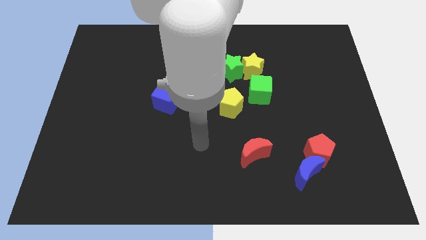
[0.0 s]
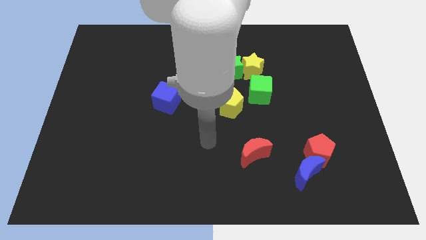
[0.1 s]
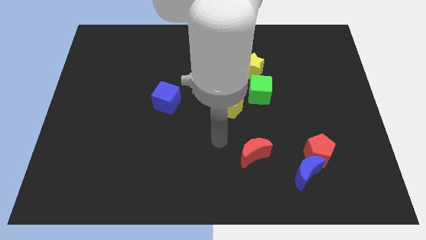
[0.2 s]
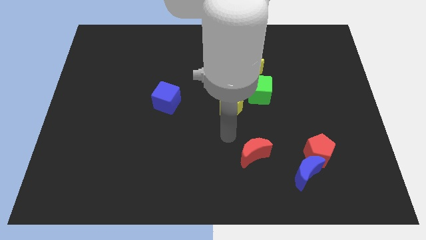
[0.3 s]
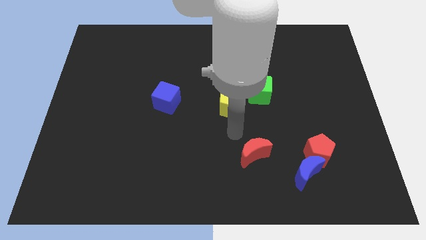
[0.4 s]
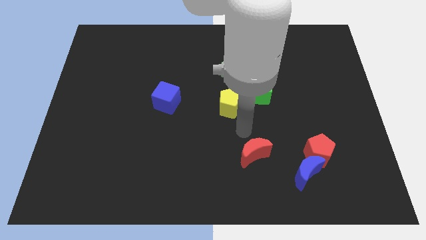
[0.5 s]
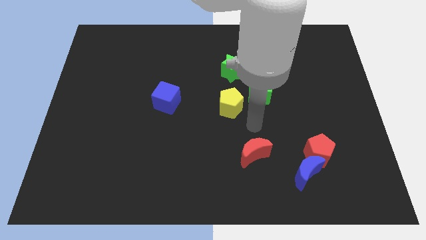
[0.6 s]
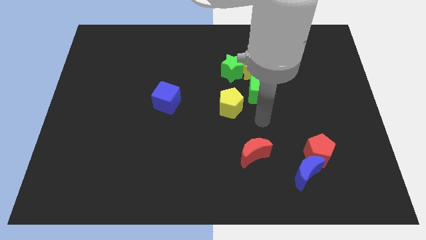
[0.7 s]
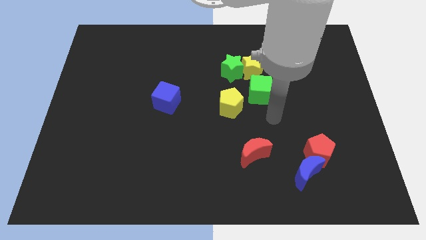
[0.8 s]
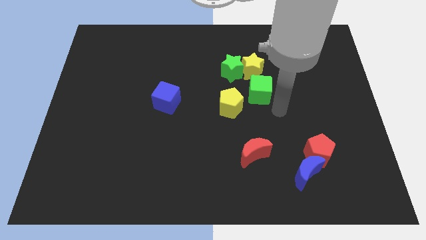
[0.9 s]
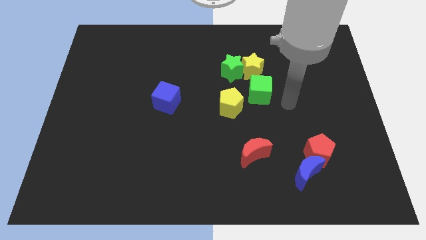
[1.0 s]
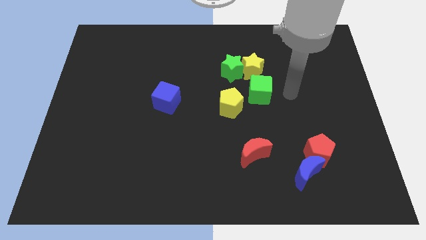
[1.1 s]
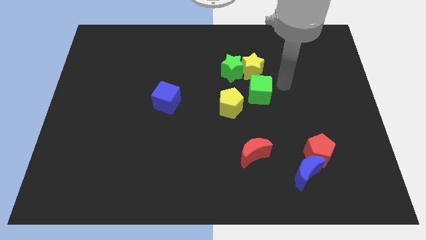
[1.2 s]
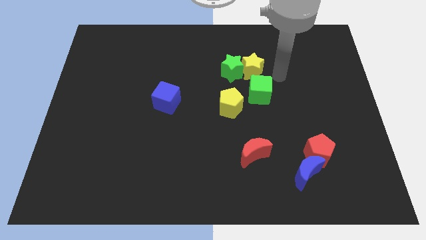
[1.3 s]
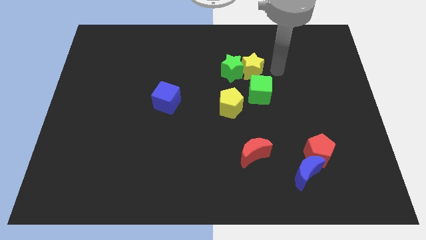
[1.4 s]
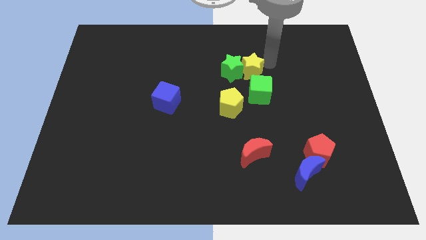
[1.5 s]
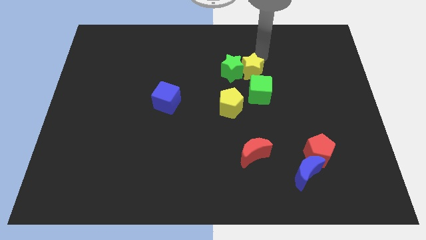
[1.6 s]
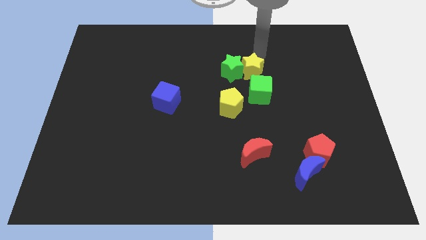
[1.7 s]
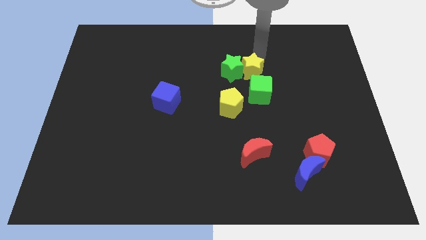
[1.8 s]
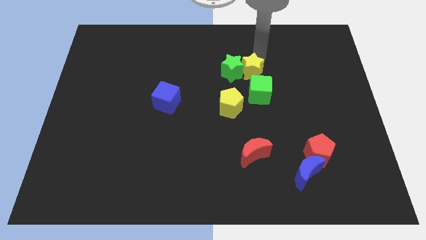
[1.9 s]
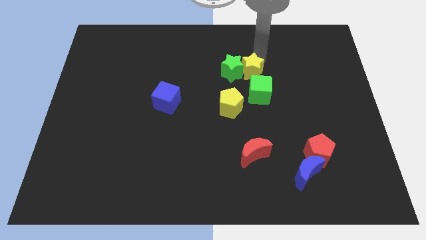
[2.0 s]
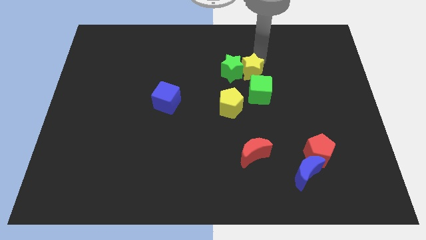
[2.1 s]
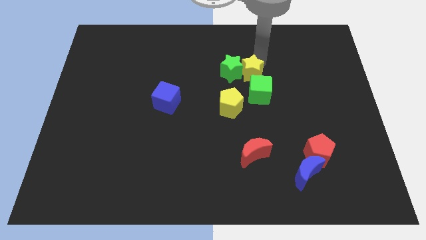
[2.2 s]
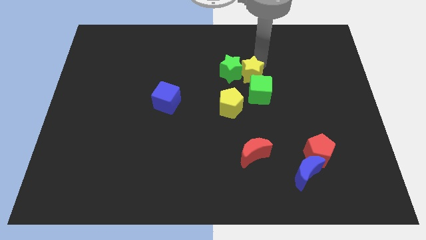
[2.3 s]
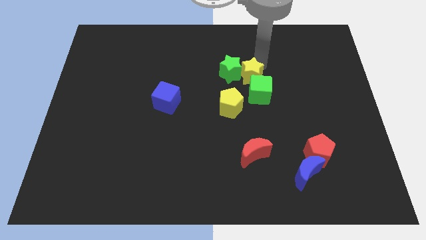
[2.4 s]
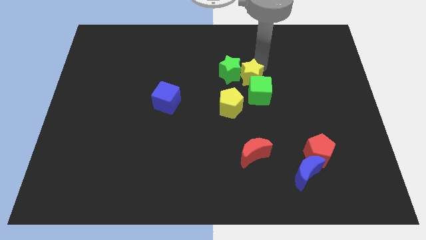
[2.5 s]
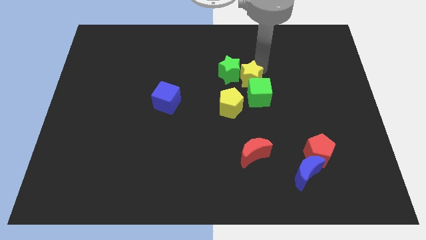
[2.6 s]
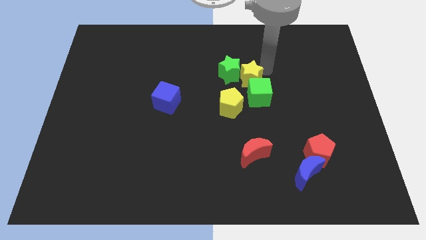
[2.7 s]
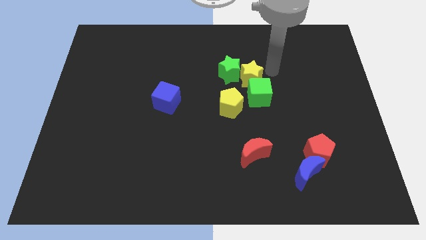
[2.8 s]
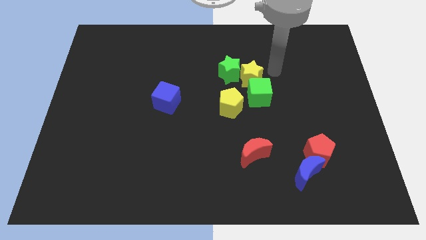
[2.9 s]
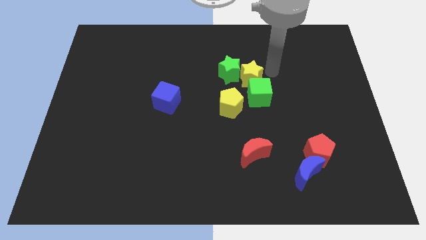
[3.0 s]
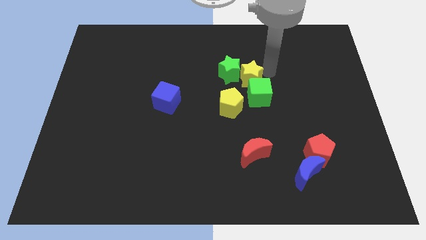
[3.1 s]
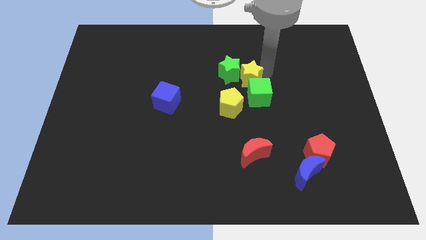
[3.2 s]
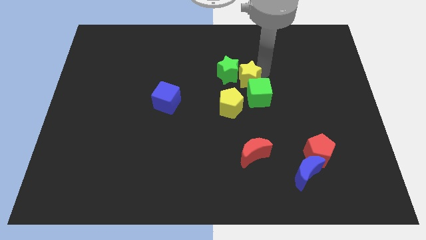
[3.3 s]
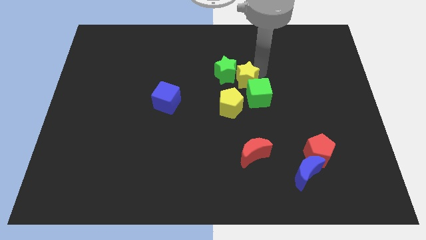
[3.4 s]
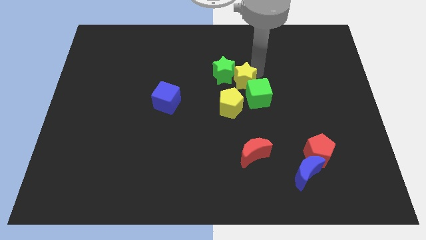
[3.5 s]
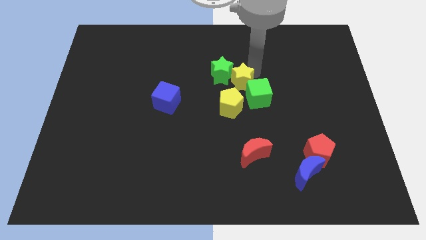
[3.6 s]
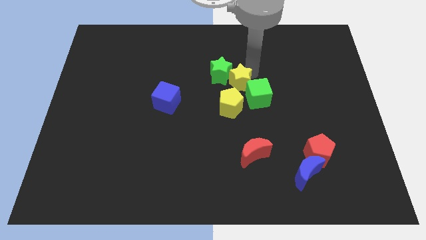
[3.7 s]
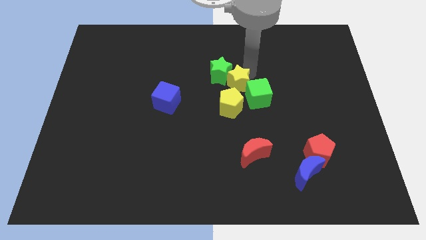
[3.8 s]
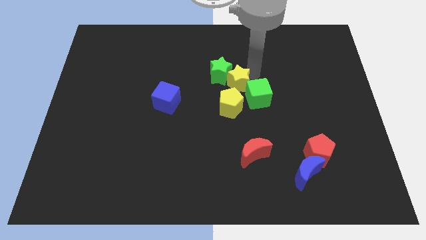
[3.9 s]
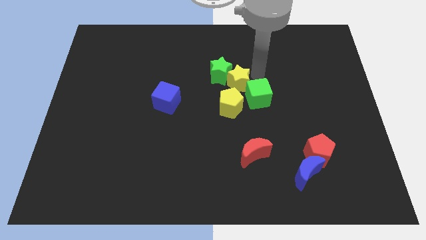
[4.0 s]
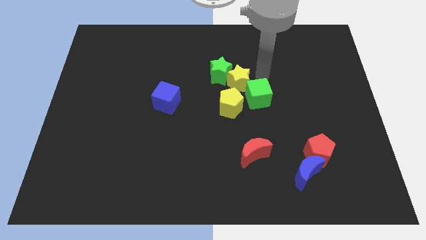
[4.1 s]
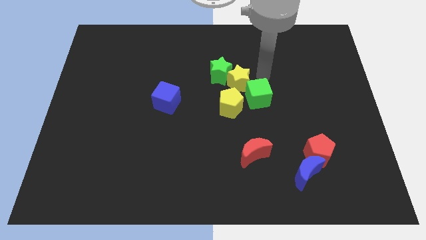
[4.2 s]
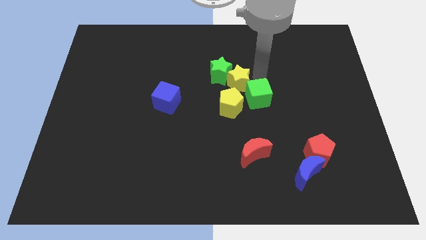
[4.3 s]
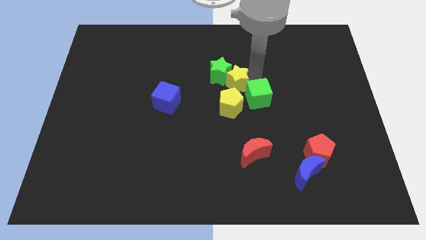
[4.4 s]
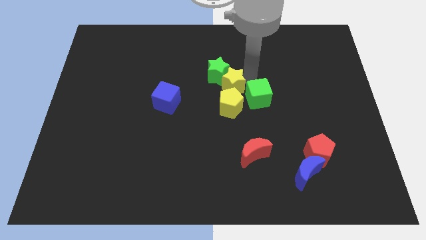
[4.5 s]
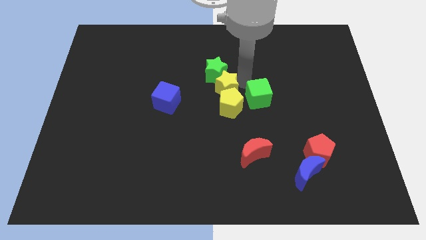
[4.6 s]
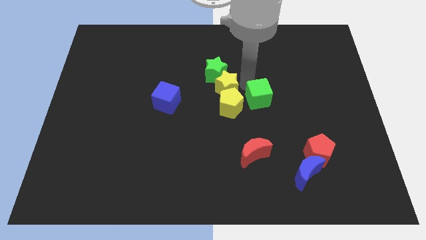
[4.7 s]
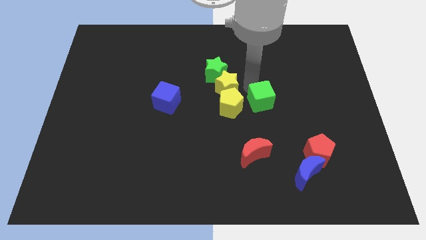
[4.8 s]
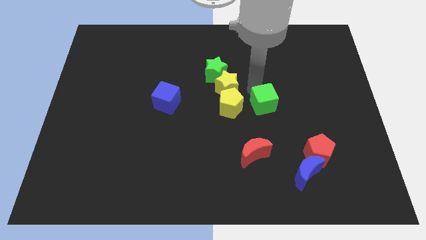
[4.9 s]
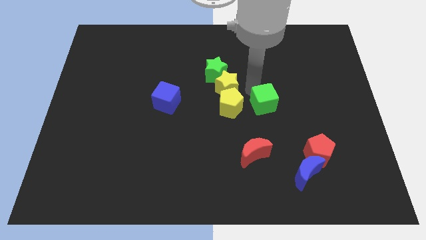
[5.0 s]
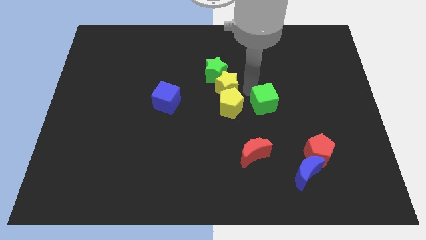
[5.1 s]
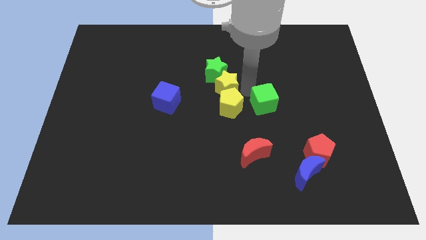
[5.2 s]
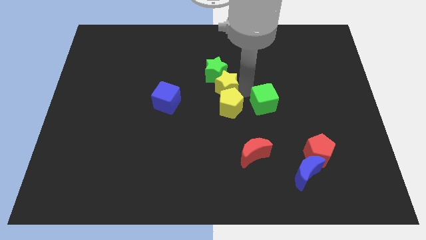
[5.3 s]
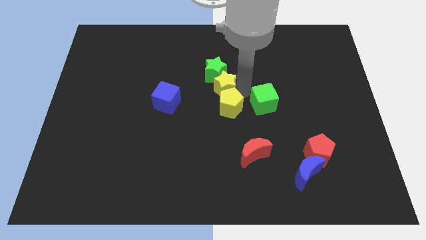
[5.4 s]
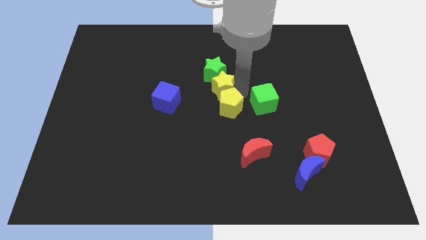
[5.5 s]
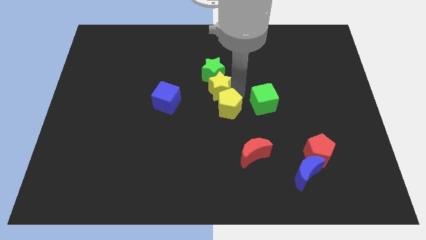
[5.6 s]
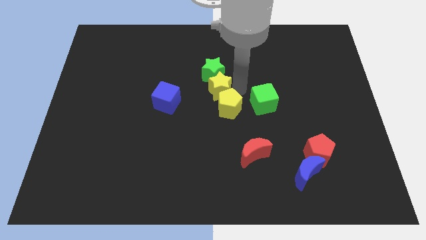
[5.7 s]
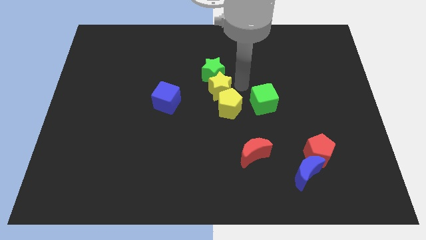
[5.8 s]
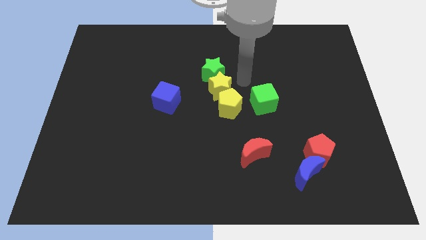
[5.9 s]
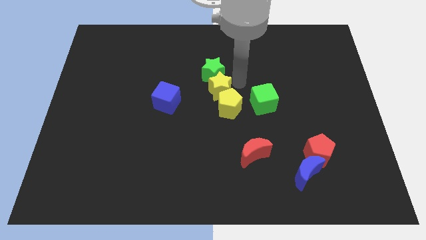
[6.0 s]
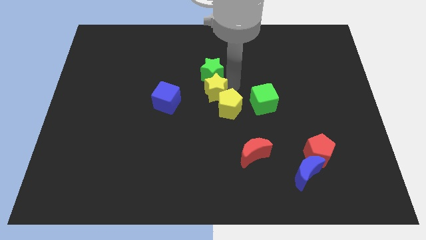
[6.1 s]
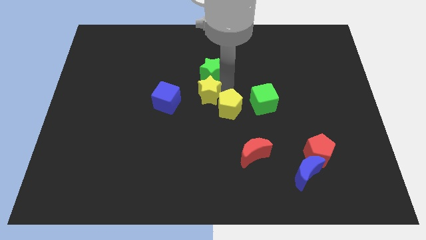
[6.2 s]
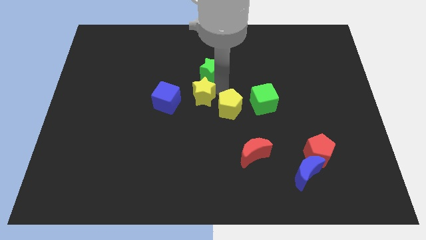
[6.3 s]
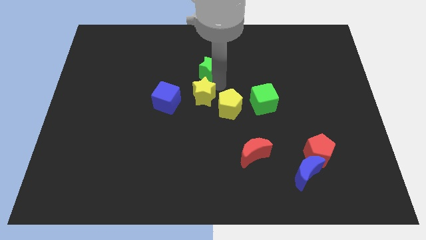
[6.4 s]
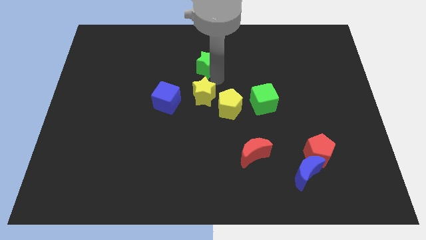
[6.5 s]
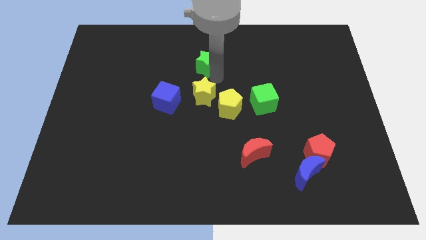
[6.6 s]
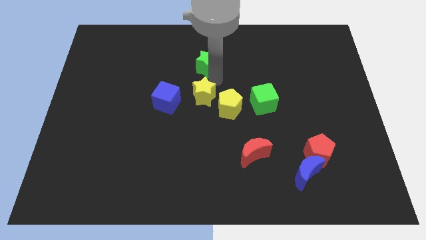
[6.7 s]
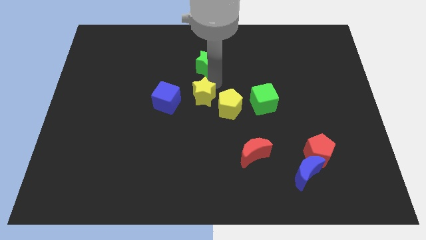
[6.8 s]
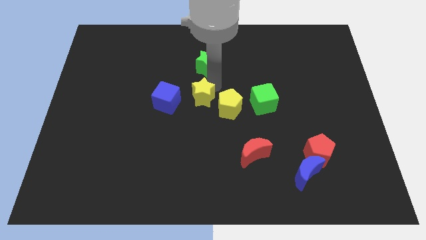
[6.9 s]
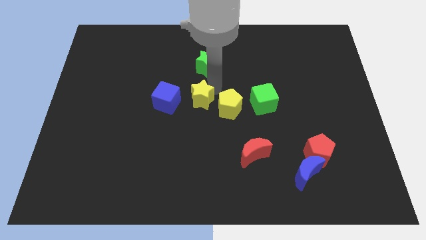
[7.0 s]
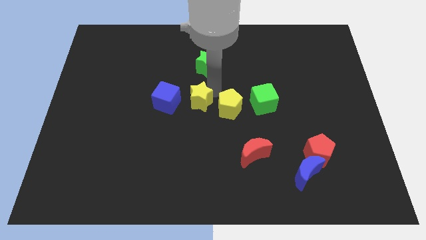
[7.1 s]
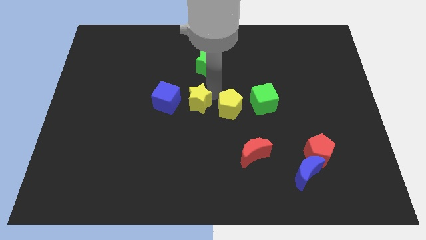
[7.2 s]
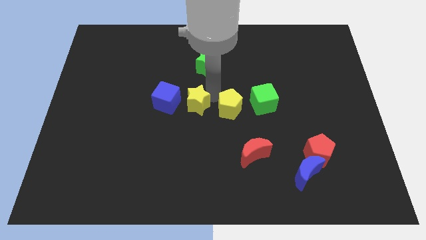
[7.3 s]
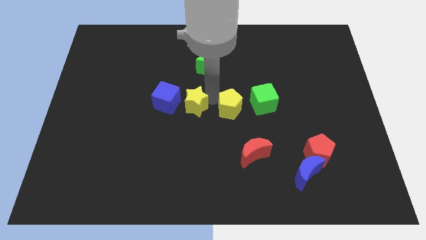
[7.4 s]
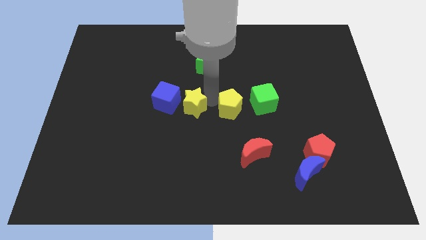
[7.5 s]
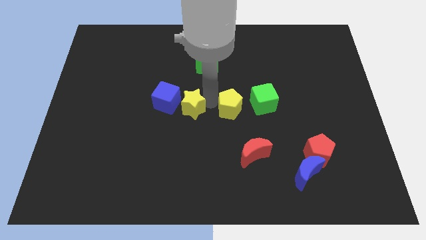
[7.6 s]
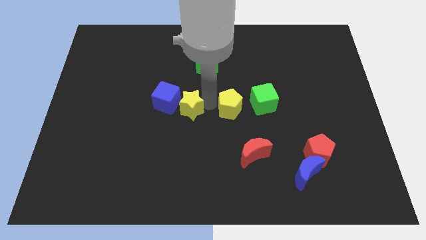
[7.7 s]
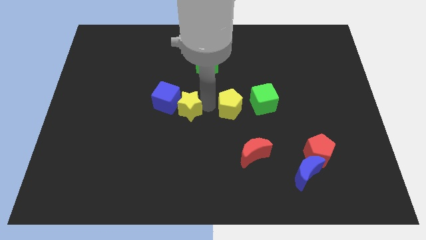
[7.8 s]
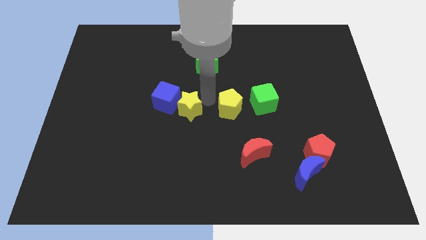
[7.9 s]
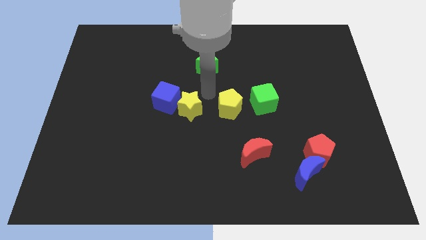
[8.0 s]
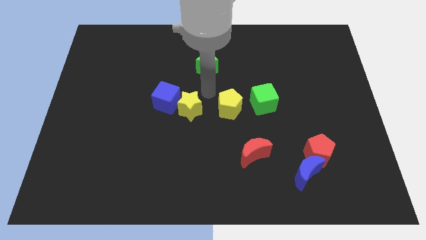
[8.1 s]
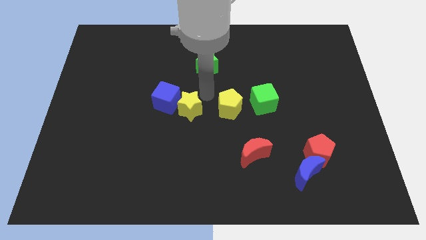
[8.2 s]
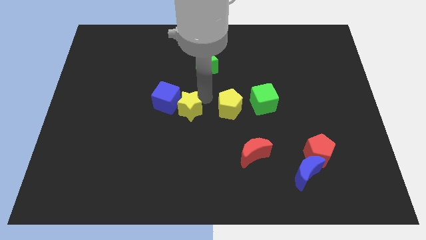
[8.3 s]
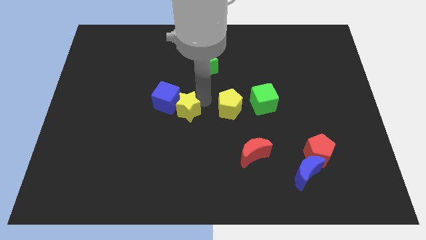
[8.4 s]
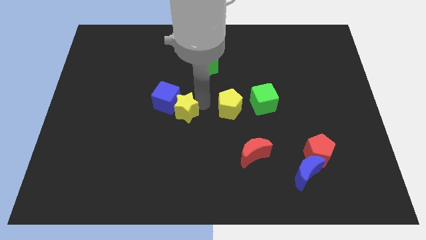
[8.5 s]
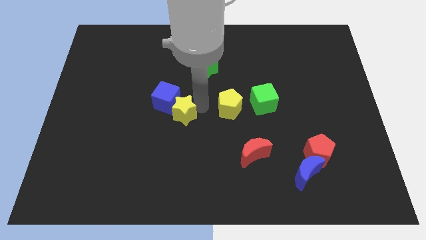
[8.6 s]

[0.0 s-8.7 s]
move the yellow star to the bottom of the blue cube
